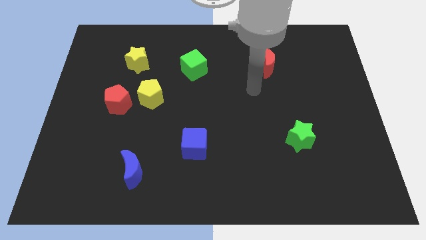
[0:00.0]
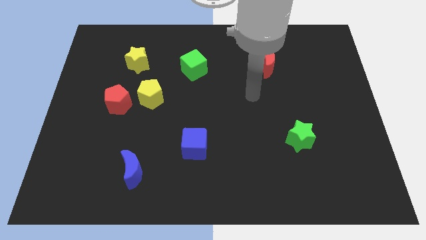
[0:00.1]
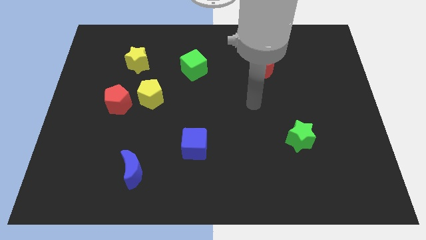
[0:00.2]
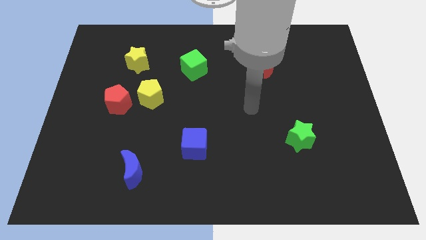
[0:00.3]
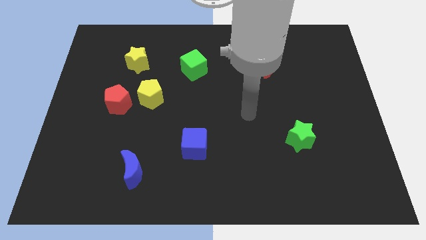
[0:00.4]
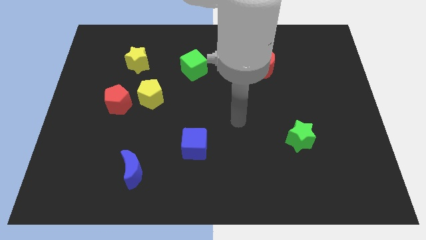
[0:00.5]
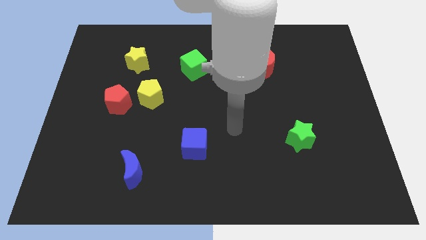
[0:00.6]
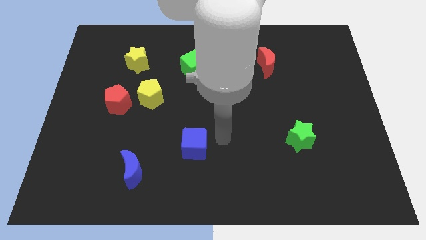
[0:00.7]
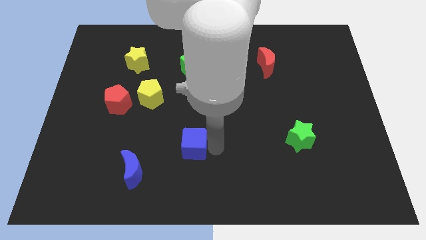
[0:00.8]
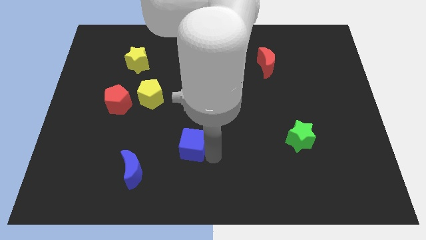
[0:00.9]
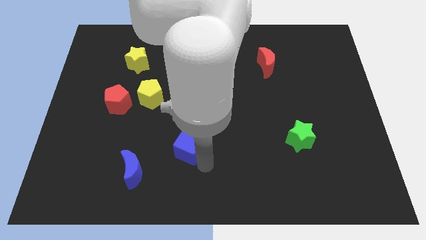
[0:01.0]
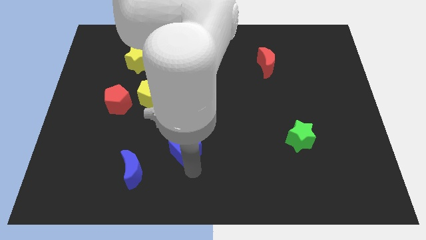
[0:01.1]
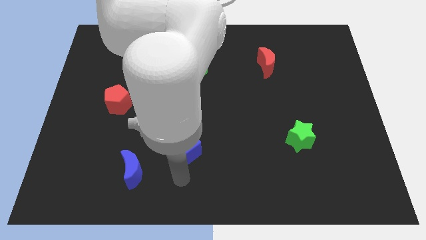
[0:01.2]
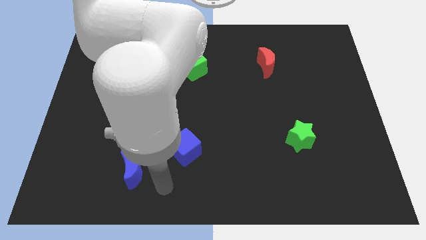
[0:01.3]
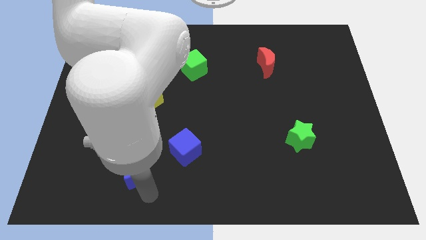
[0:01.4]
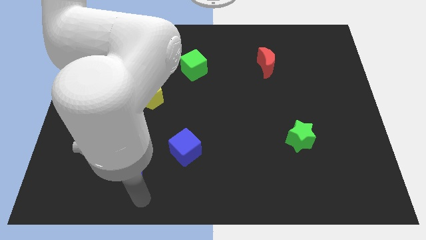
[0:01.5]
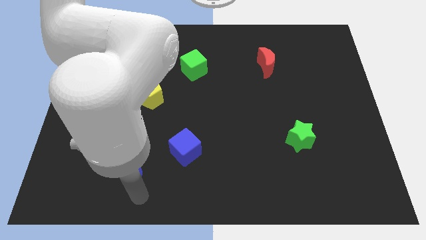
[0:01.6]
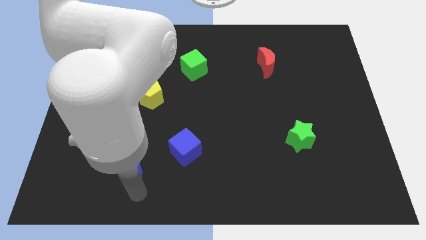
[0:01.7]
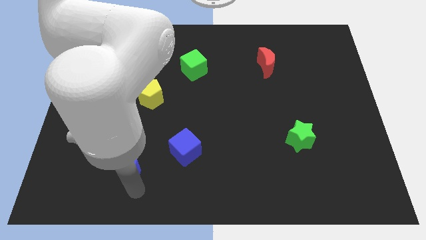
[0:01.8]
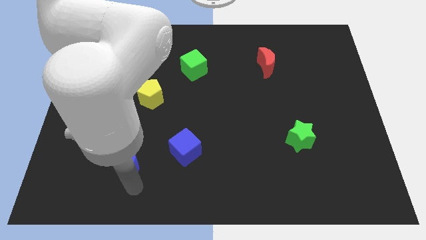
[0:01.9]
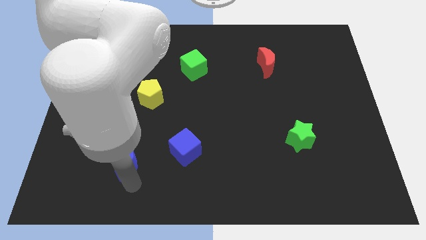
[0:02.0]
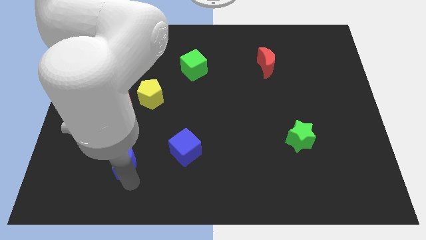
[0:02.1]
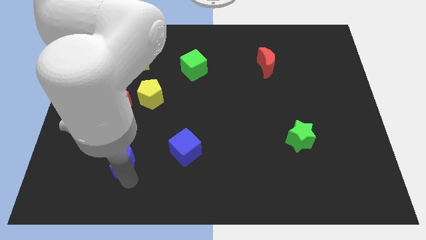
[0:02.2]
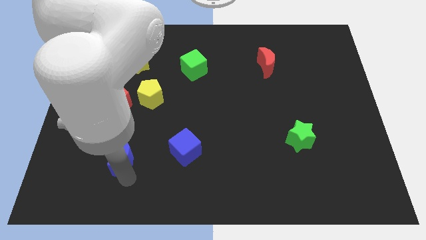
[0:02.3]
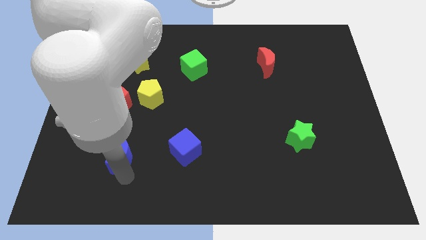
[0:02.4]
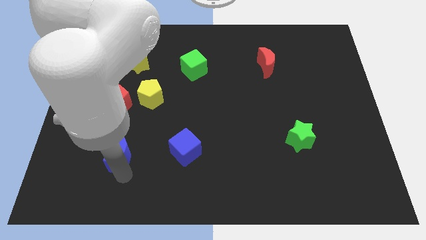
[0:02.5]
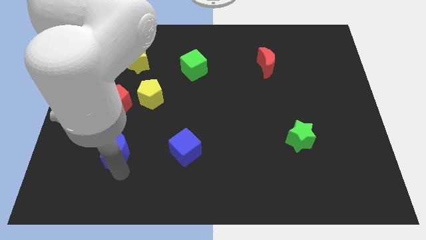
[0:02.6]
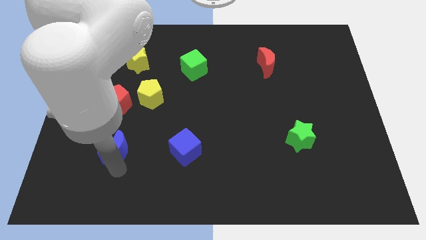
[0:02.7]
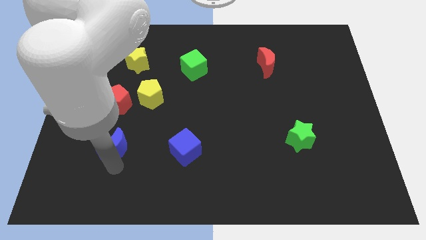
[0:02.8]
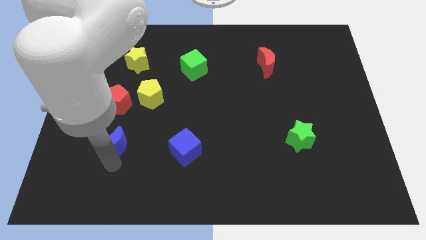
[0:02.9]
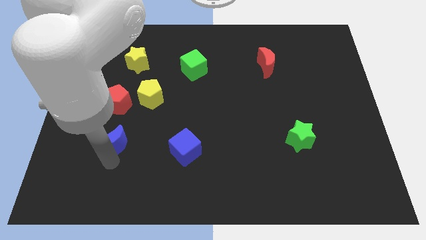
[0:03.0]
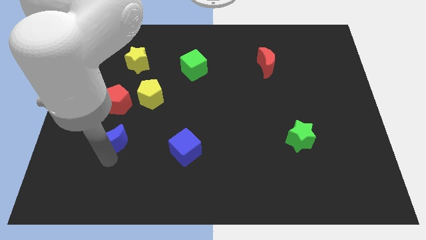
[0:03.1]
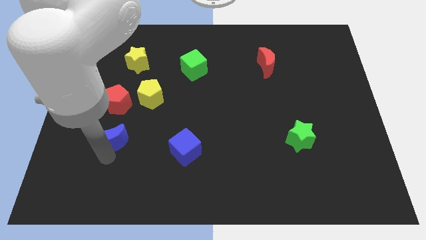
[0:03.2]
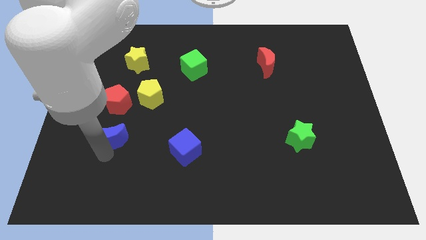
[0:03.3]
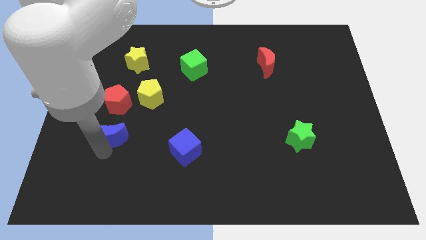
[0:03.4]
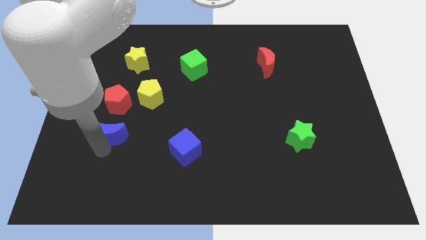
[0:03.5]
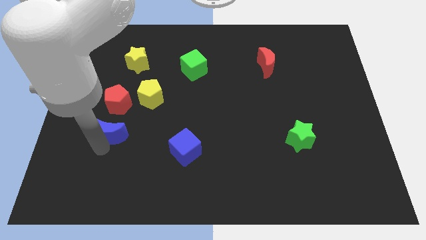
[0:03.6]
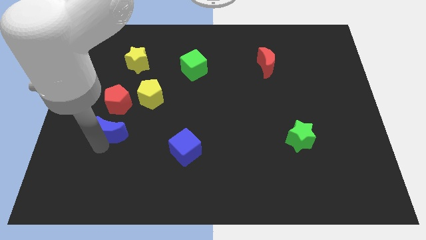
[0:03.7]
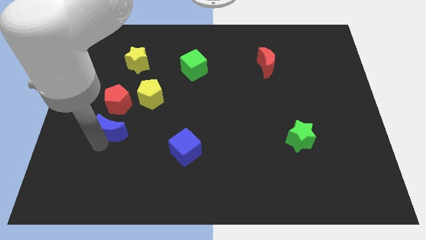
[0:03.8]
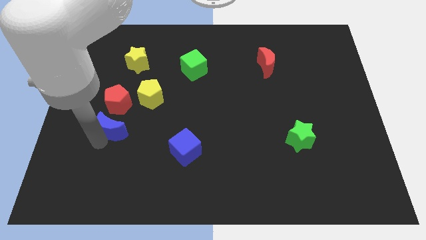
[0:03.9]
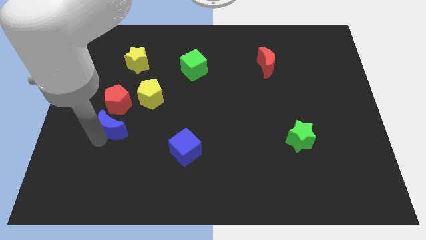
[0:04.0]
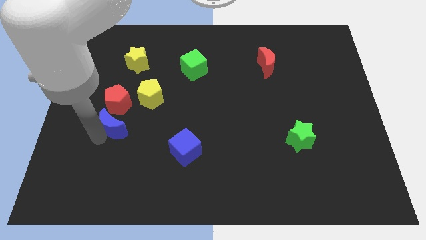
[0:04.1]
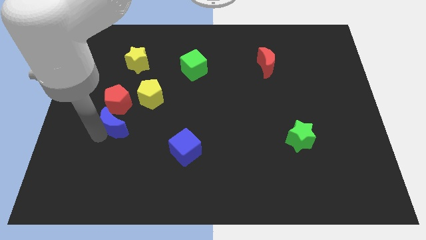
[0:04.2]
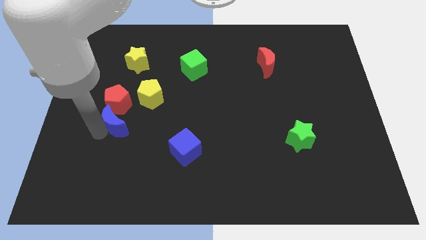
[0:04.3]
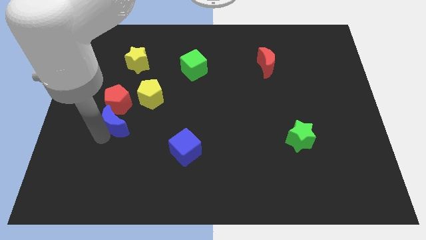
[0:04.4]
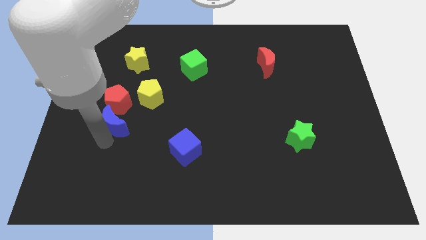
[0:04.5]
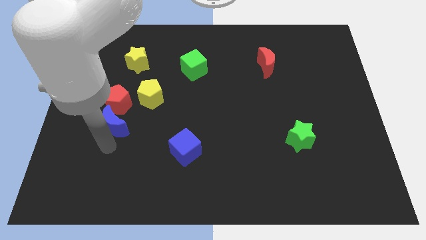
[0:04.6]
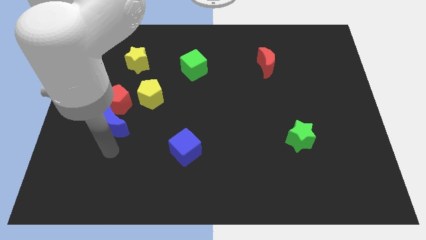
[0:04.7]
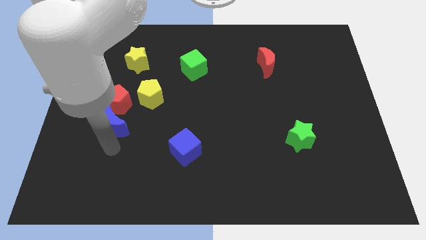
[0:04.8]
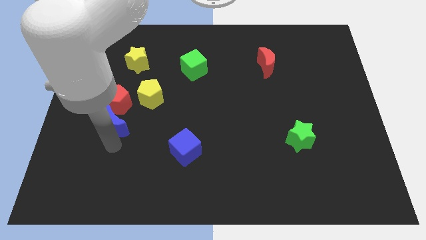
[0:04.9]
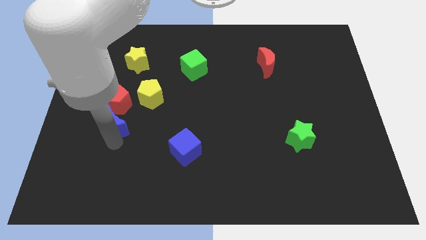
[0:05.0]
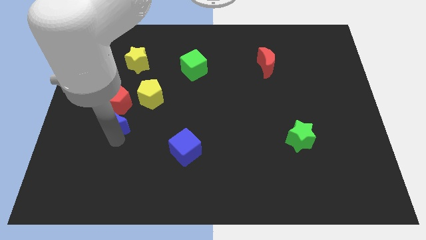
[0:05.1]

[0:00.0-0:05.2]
put the blue moon close to the red pentagon

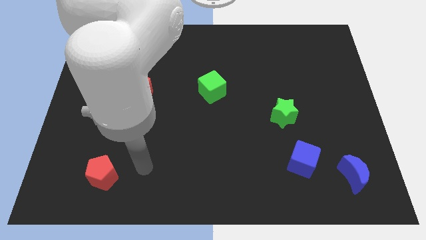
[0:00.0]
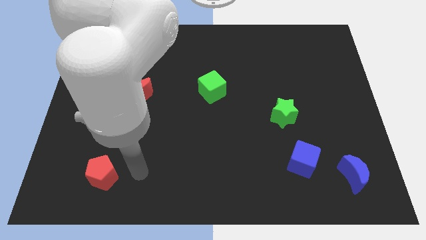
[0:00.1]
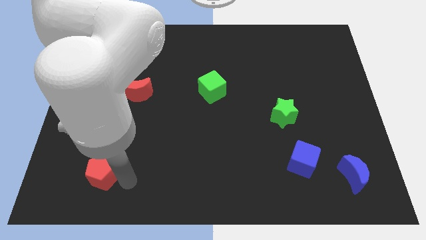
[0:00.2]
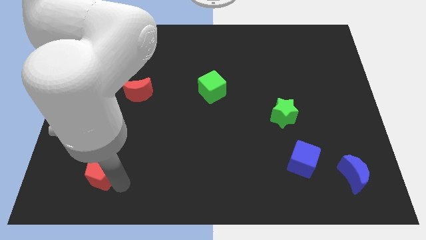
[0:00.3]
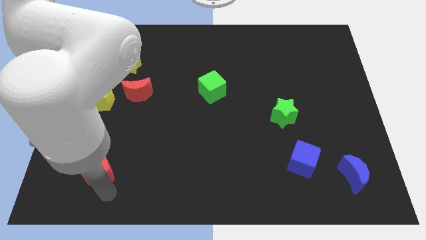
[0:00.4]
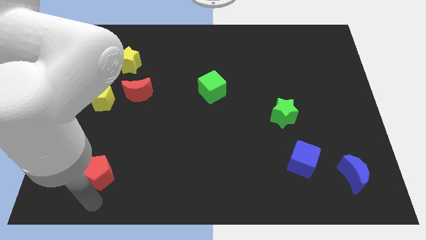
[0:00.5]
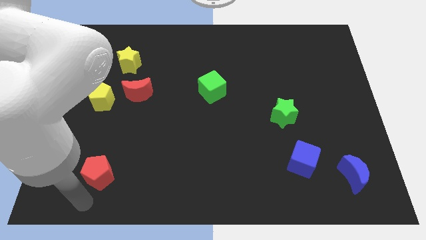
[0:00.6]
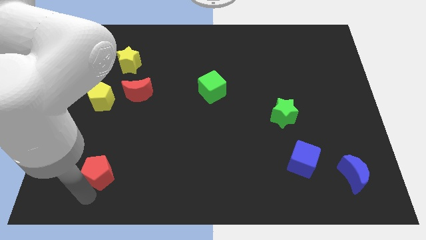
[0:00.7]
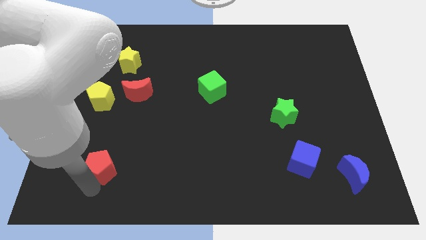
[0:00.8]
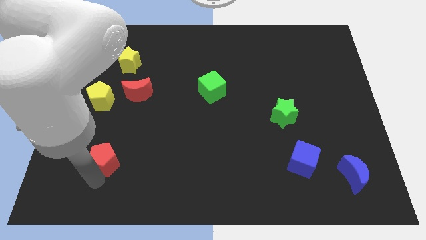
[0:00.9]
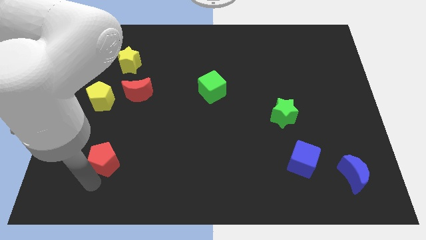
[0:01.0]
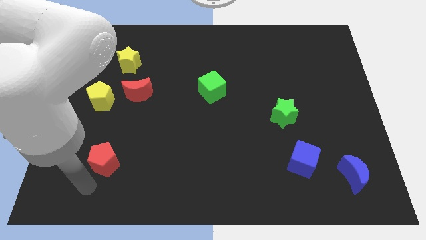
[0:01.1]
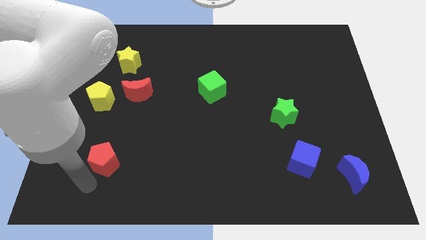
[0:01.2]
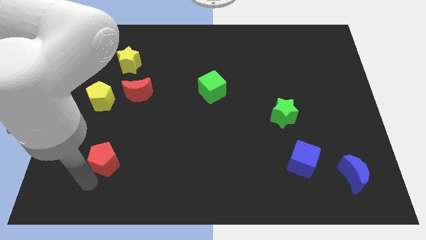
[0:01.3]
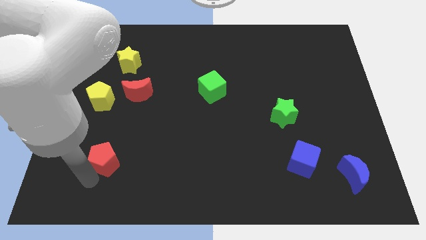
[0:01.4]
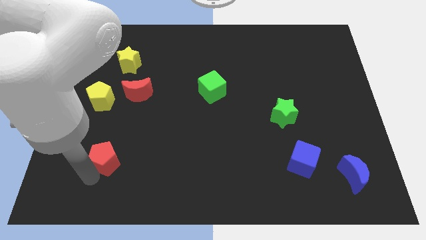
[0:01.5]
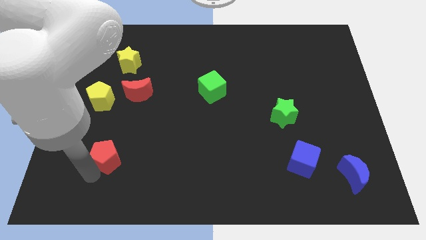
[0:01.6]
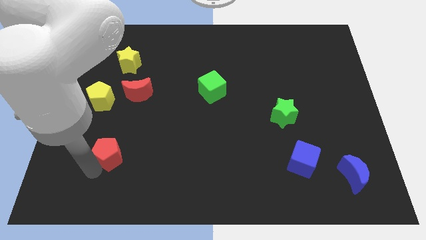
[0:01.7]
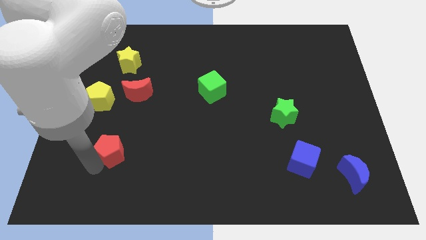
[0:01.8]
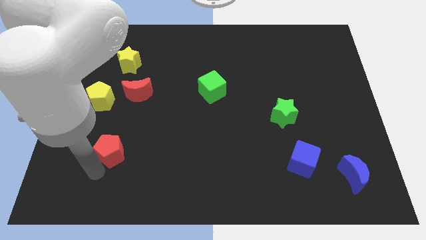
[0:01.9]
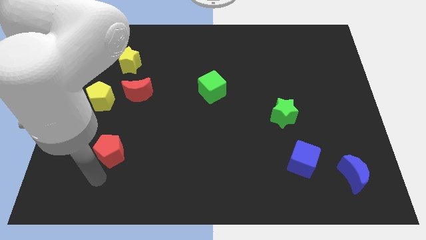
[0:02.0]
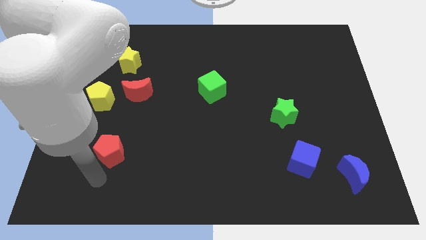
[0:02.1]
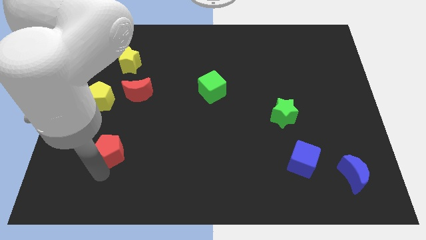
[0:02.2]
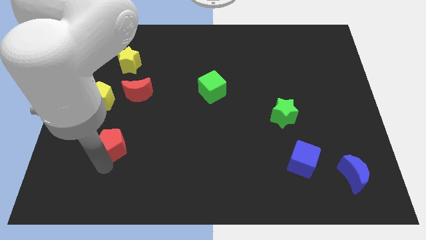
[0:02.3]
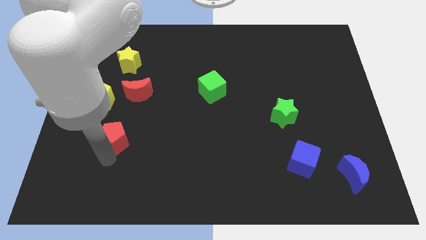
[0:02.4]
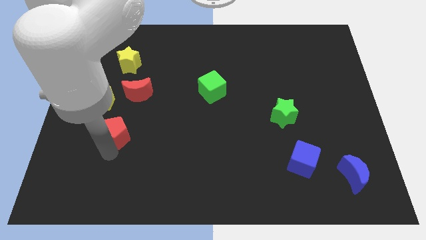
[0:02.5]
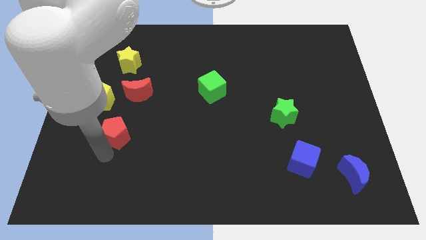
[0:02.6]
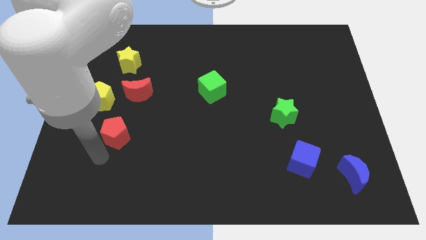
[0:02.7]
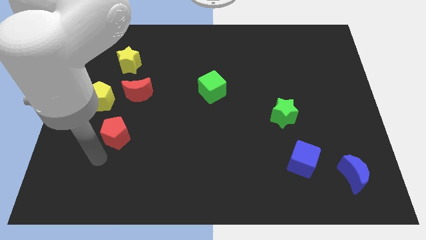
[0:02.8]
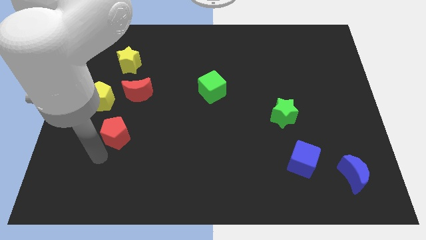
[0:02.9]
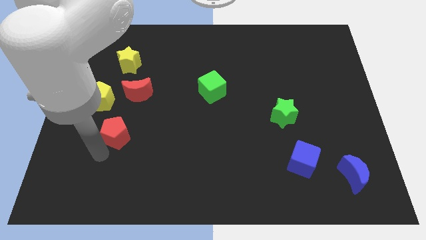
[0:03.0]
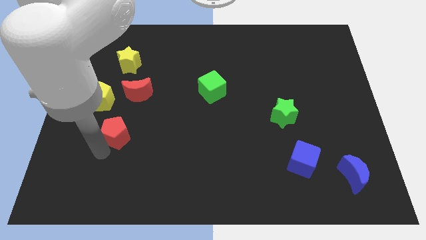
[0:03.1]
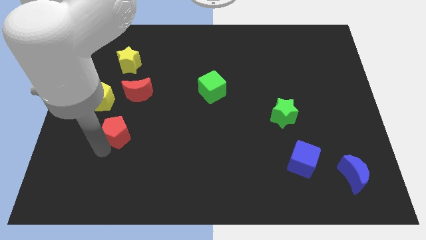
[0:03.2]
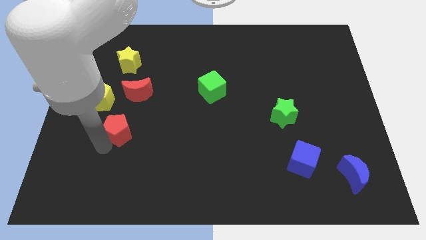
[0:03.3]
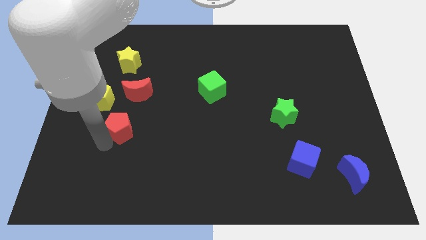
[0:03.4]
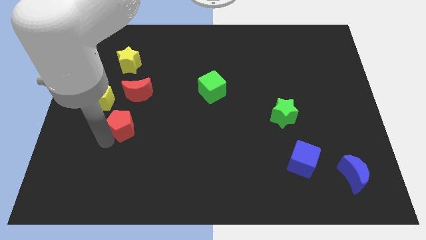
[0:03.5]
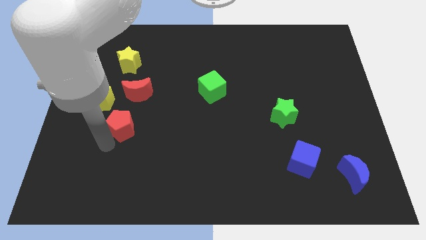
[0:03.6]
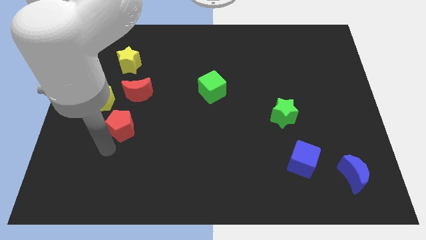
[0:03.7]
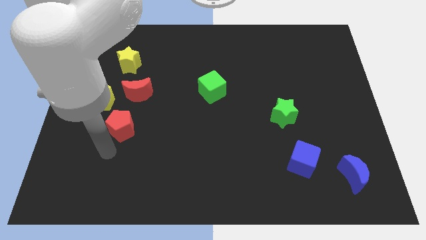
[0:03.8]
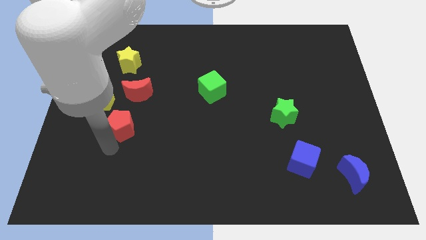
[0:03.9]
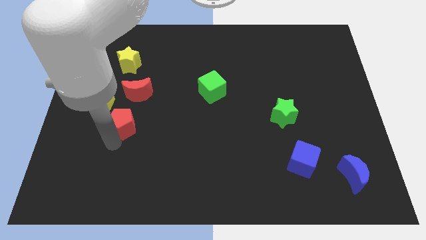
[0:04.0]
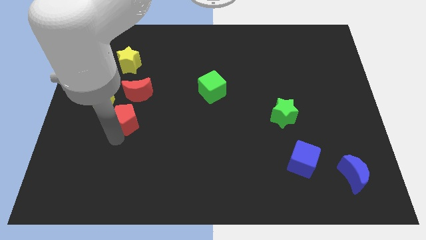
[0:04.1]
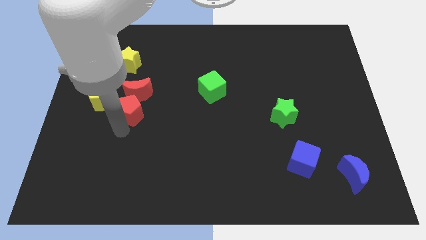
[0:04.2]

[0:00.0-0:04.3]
put the red pentagon towards the red moon
